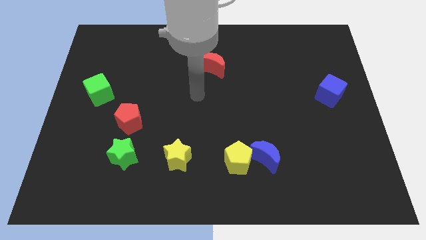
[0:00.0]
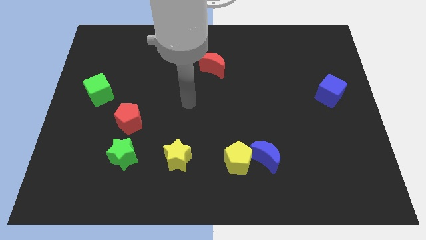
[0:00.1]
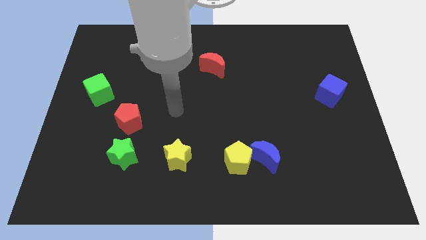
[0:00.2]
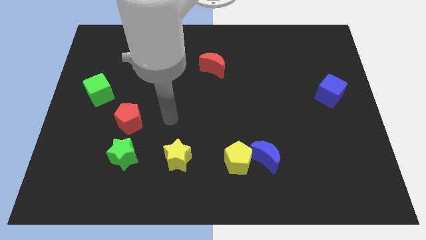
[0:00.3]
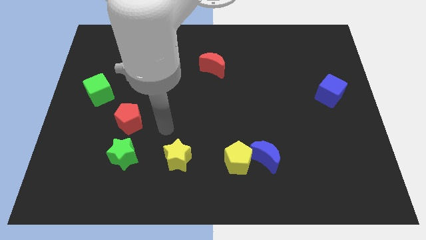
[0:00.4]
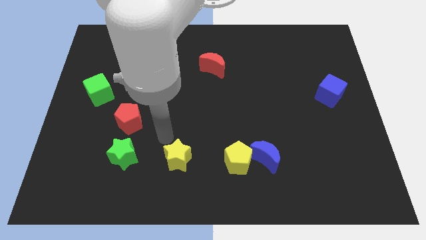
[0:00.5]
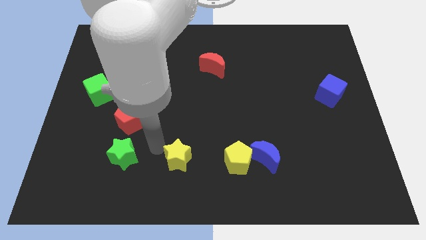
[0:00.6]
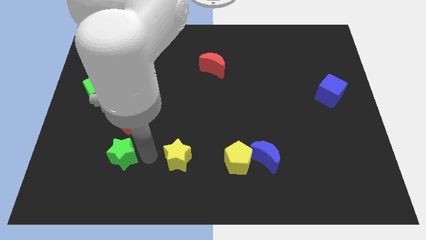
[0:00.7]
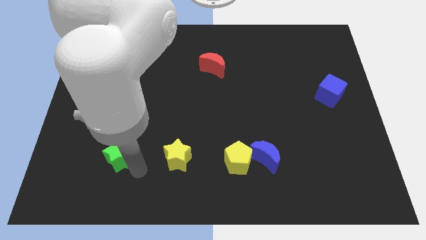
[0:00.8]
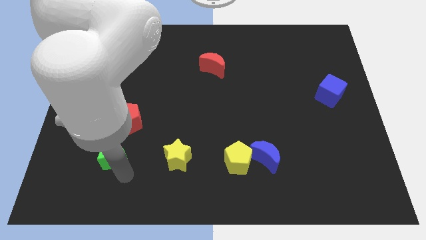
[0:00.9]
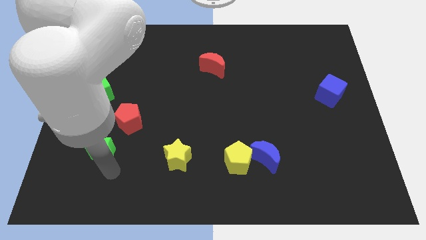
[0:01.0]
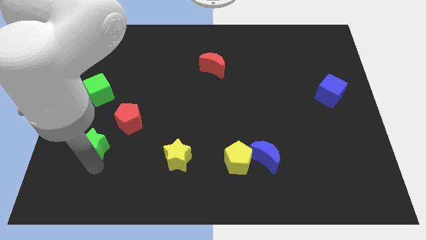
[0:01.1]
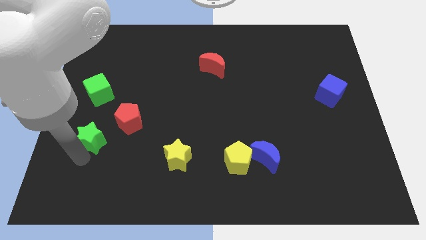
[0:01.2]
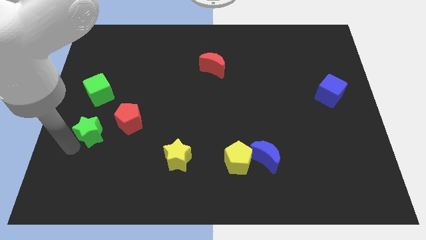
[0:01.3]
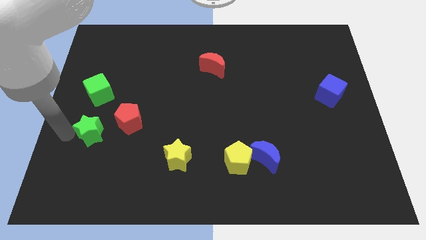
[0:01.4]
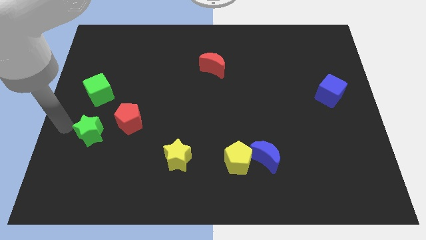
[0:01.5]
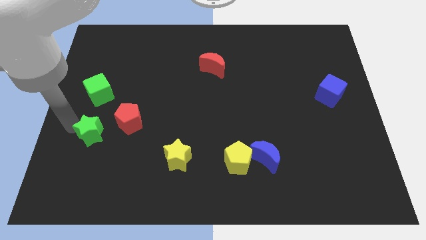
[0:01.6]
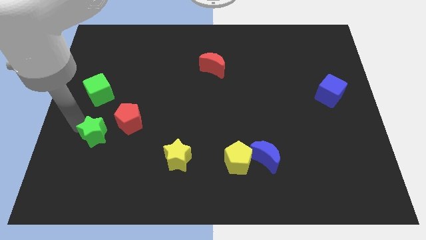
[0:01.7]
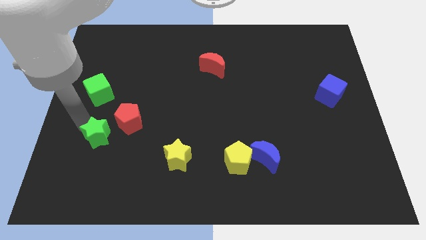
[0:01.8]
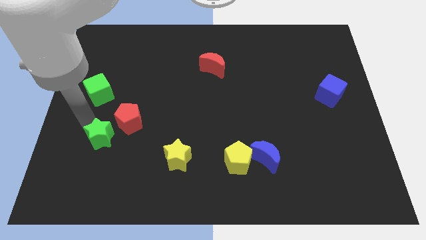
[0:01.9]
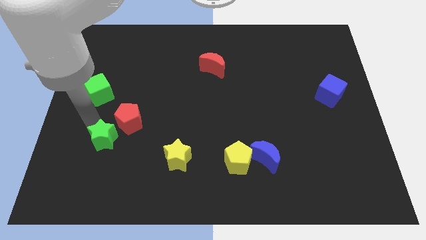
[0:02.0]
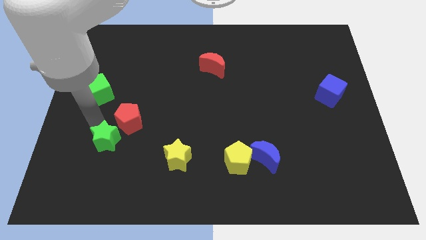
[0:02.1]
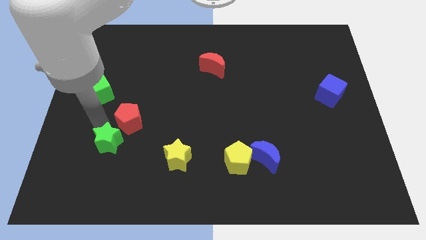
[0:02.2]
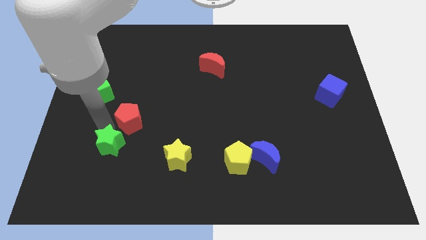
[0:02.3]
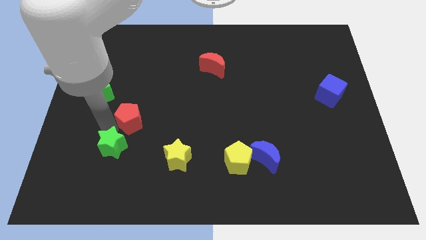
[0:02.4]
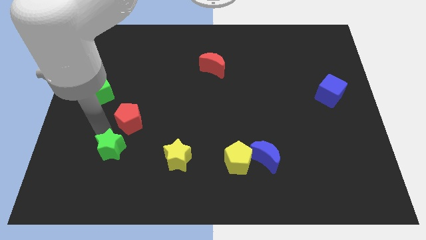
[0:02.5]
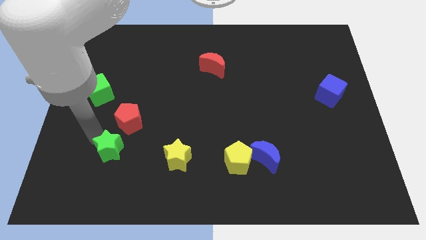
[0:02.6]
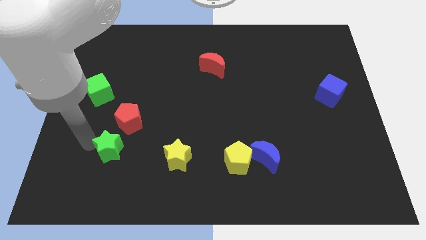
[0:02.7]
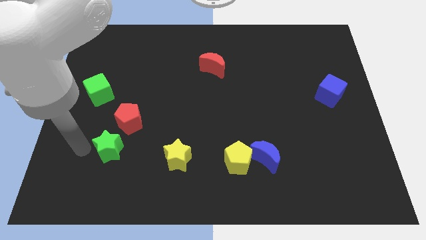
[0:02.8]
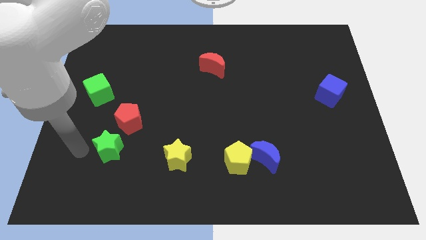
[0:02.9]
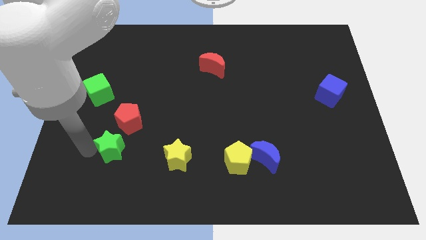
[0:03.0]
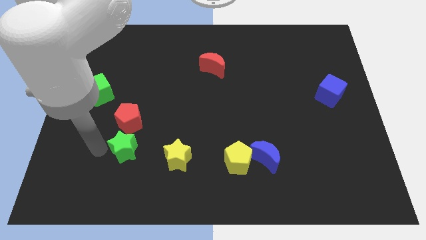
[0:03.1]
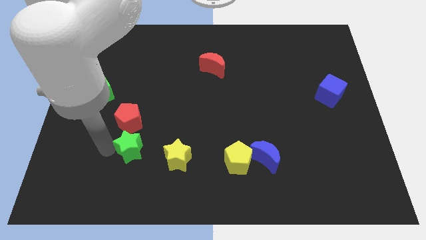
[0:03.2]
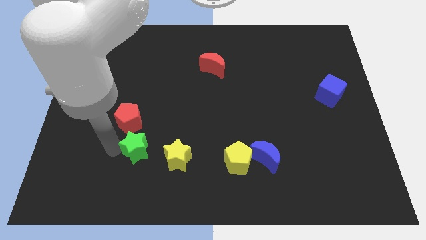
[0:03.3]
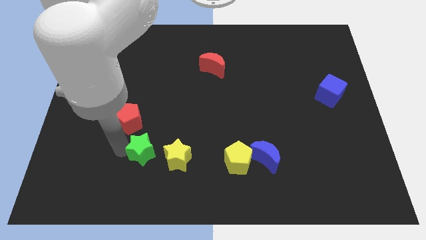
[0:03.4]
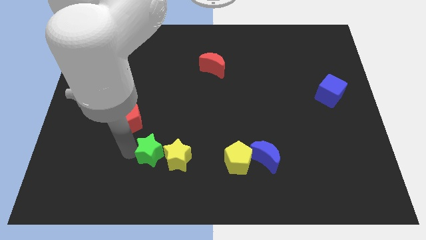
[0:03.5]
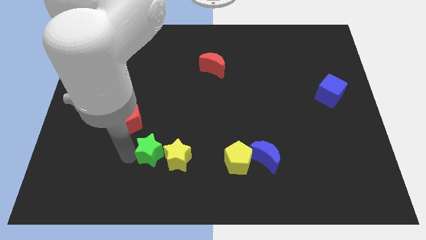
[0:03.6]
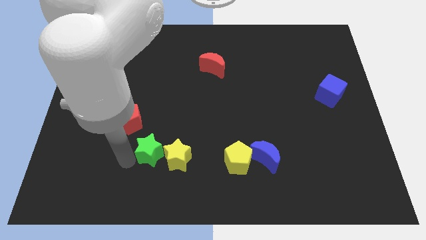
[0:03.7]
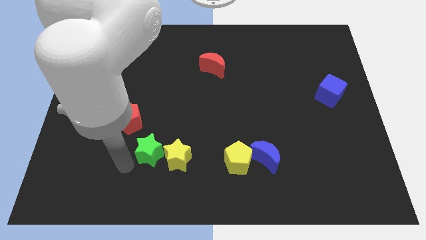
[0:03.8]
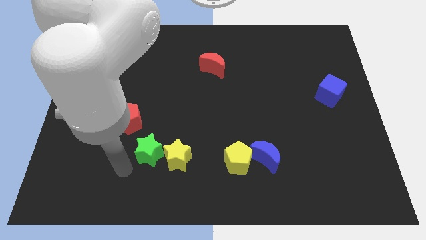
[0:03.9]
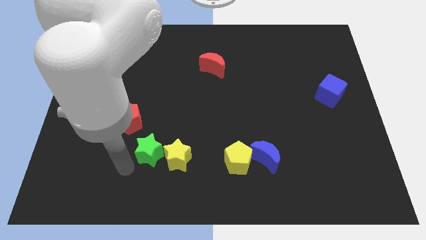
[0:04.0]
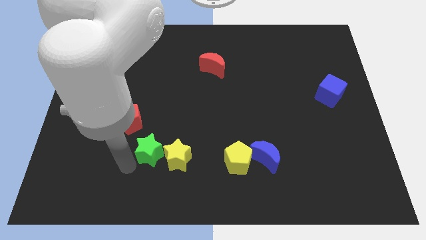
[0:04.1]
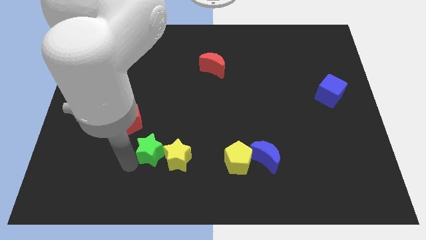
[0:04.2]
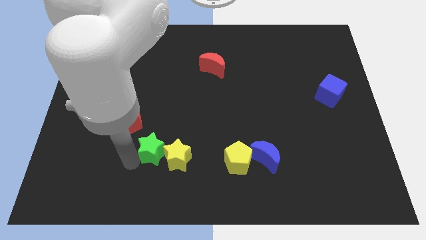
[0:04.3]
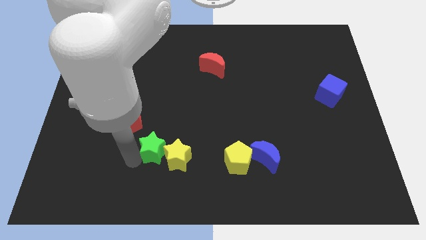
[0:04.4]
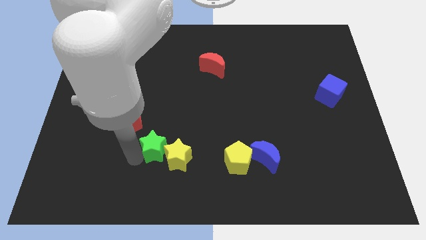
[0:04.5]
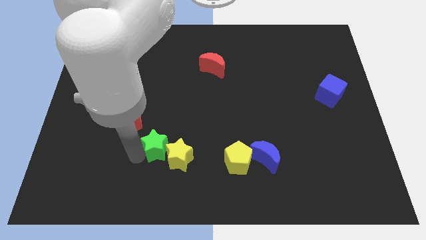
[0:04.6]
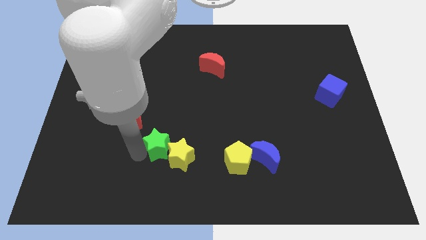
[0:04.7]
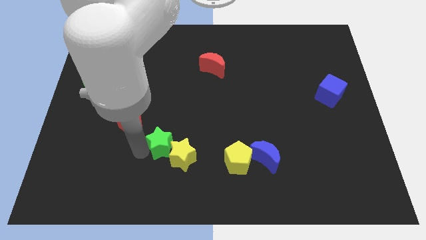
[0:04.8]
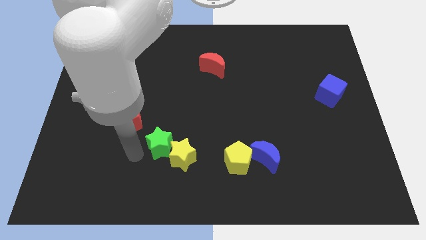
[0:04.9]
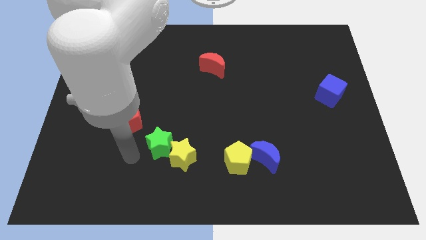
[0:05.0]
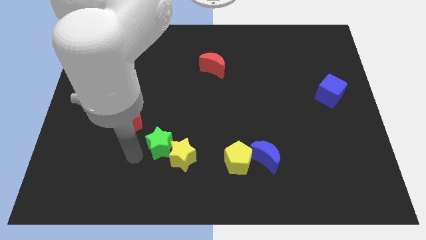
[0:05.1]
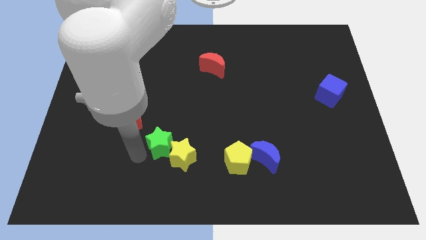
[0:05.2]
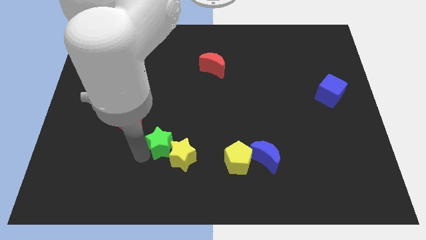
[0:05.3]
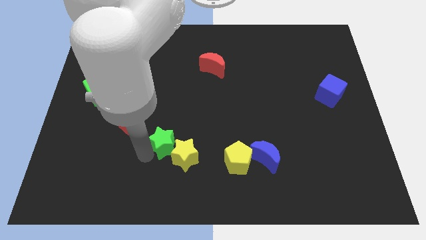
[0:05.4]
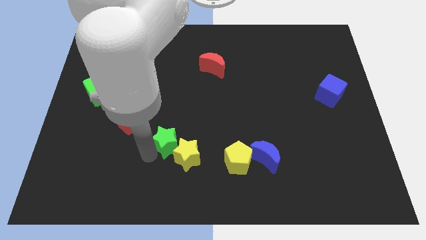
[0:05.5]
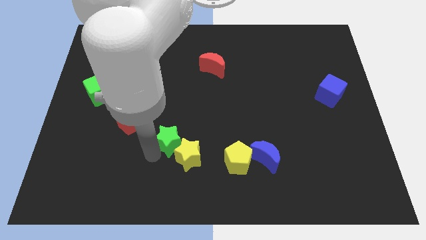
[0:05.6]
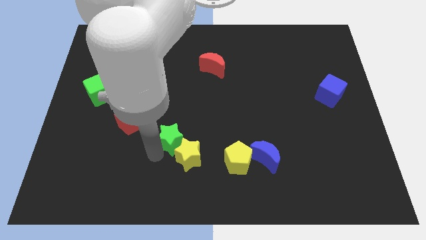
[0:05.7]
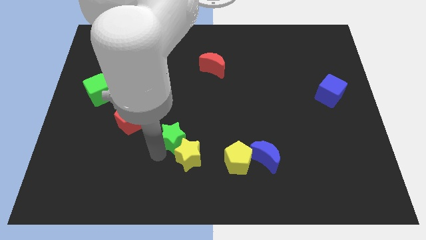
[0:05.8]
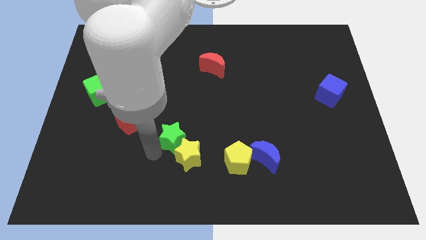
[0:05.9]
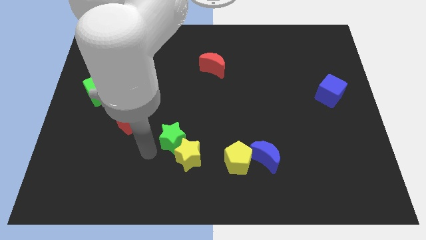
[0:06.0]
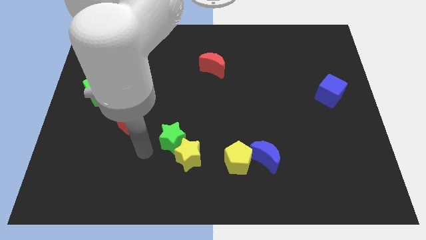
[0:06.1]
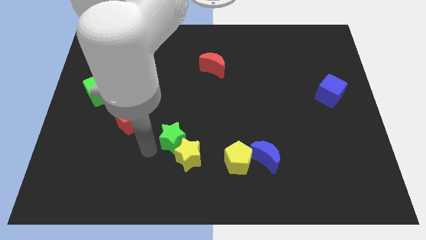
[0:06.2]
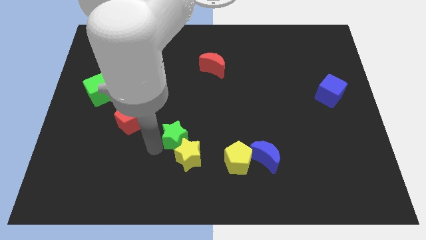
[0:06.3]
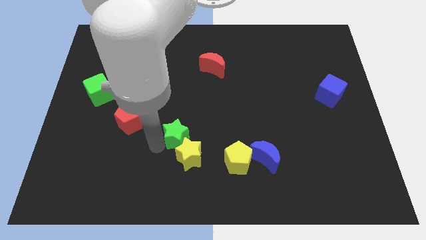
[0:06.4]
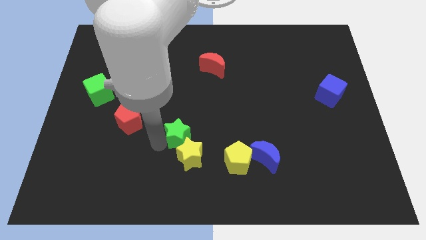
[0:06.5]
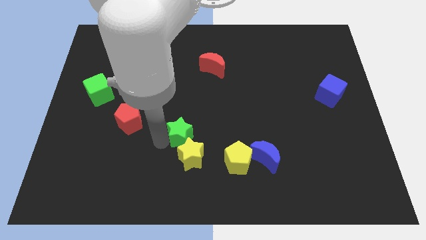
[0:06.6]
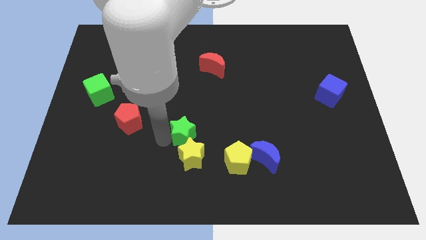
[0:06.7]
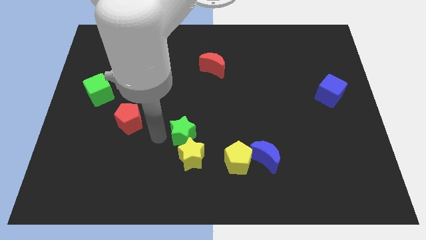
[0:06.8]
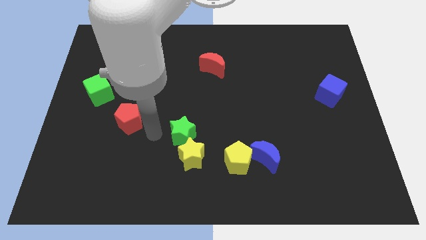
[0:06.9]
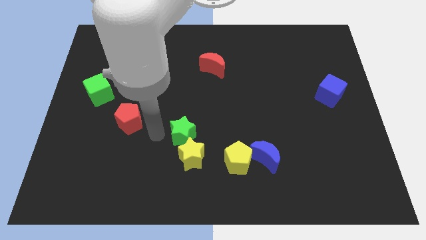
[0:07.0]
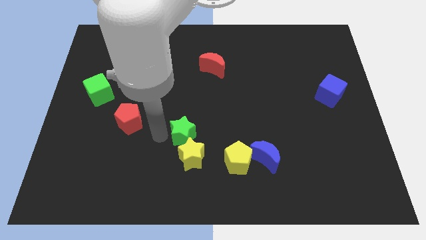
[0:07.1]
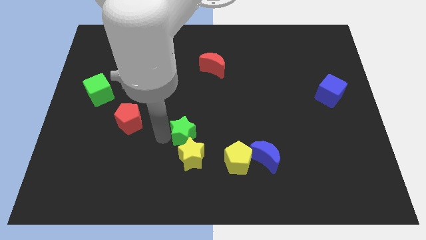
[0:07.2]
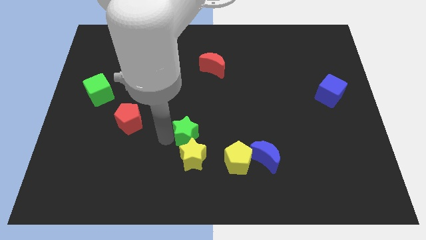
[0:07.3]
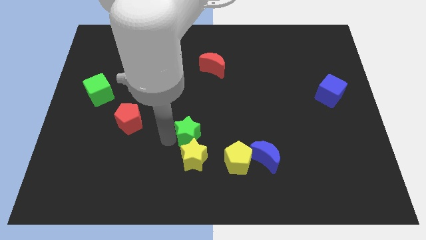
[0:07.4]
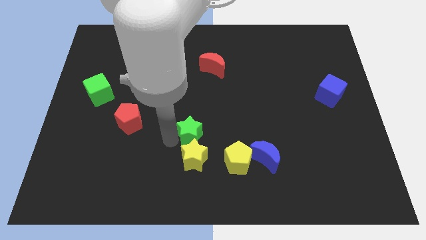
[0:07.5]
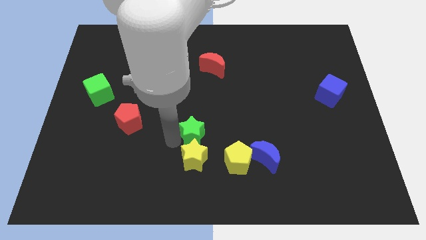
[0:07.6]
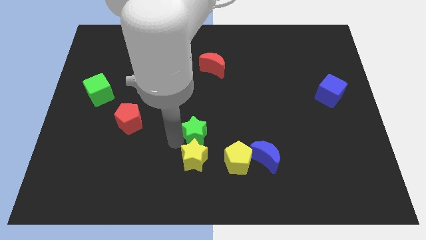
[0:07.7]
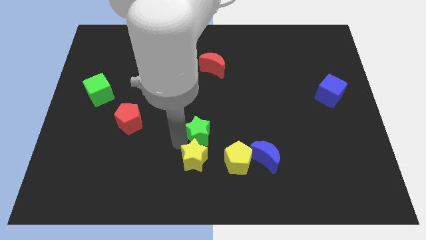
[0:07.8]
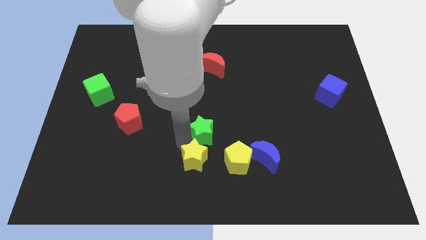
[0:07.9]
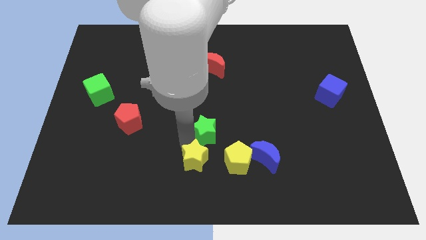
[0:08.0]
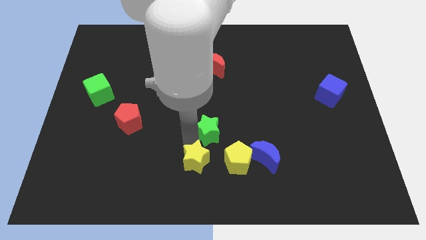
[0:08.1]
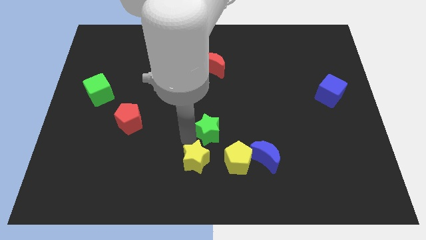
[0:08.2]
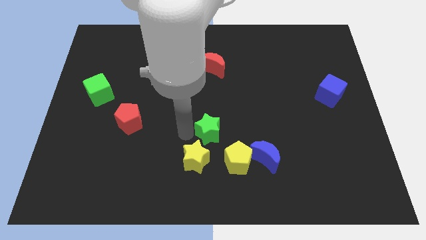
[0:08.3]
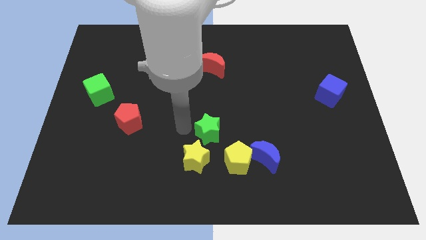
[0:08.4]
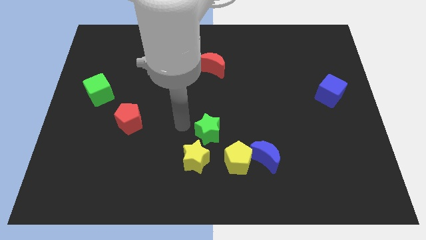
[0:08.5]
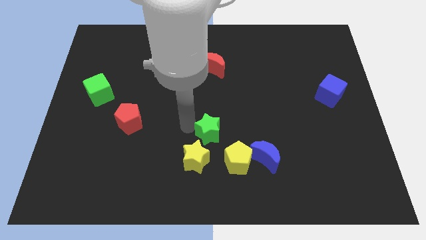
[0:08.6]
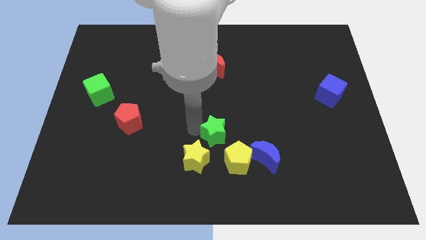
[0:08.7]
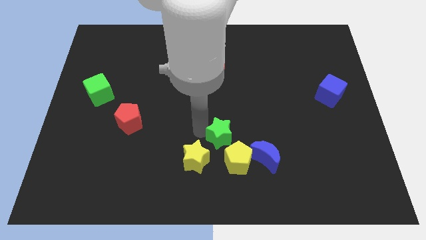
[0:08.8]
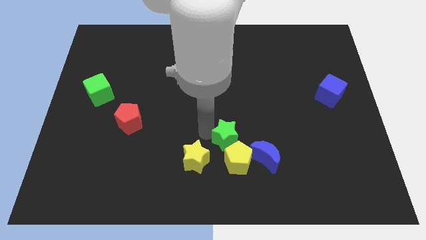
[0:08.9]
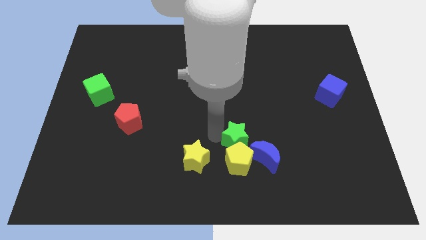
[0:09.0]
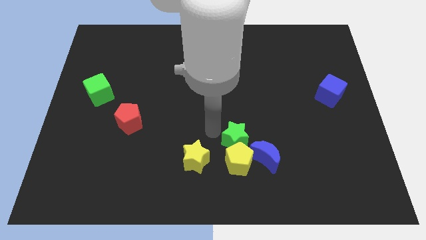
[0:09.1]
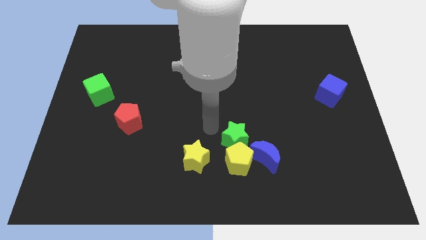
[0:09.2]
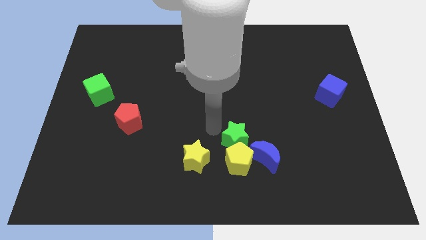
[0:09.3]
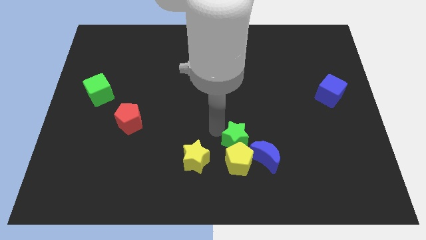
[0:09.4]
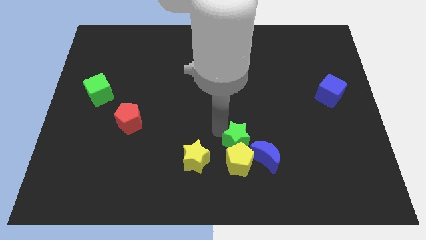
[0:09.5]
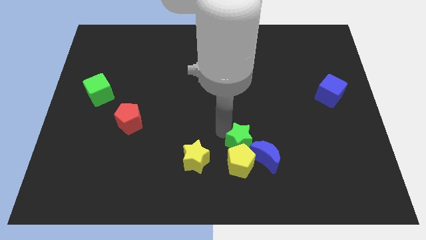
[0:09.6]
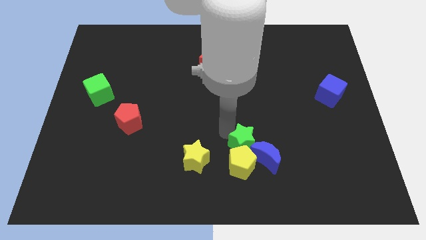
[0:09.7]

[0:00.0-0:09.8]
push the green star close to the blue moon
